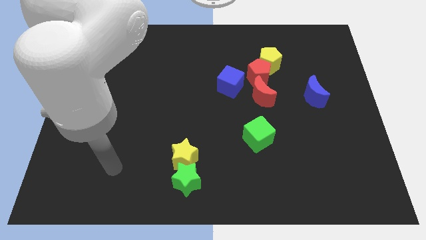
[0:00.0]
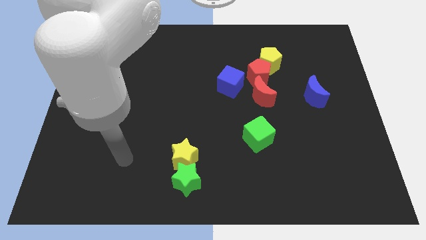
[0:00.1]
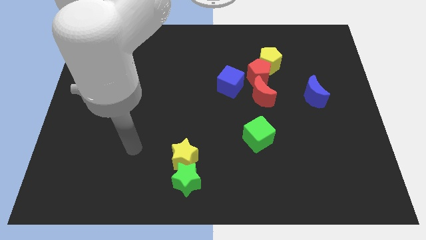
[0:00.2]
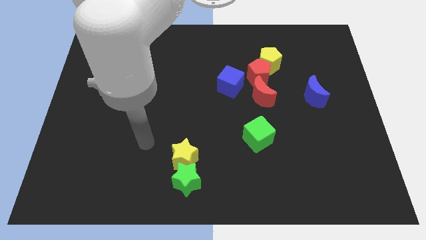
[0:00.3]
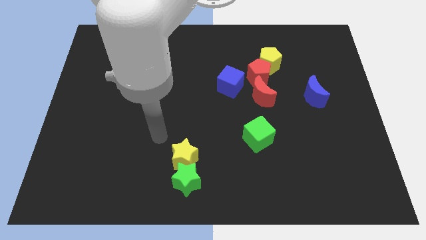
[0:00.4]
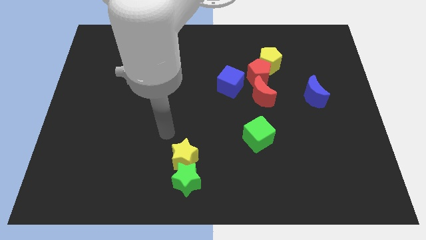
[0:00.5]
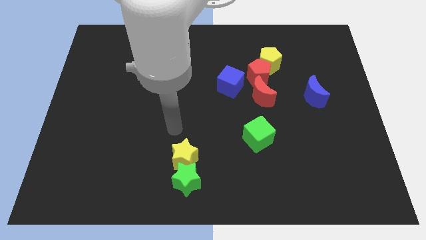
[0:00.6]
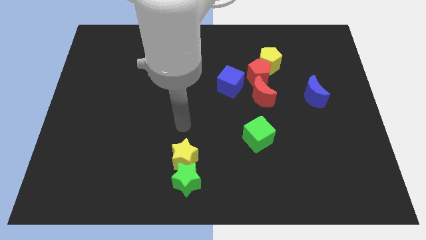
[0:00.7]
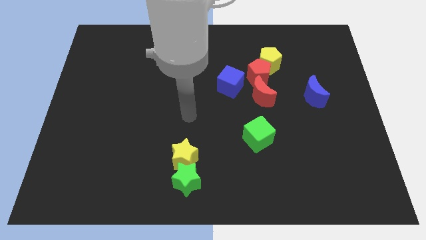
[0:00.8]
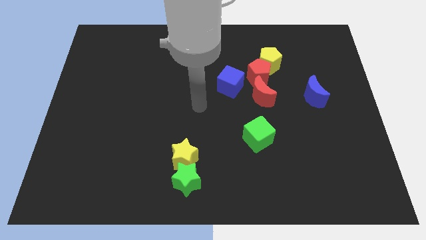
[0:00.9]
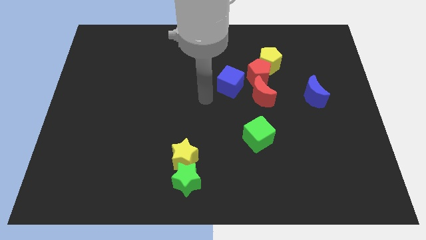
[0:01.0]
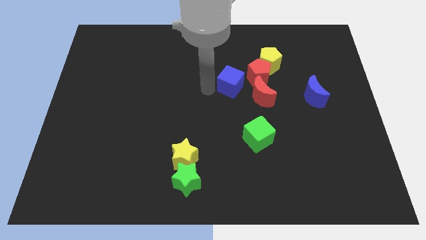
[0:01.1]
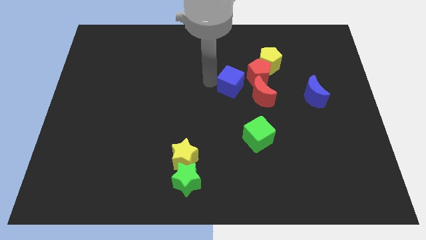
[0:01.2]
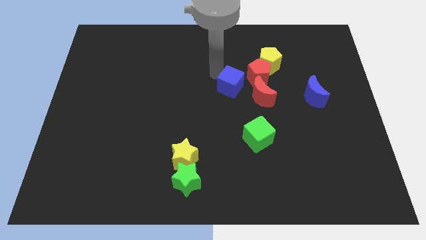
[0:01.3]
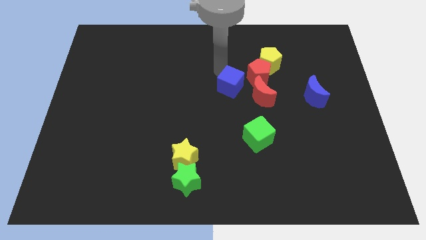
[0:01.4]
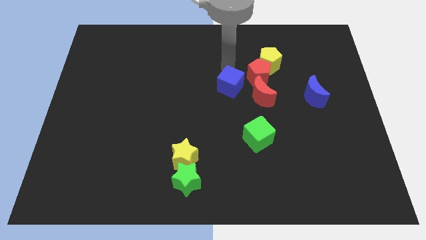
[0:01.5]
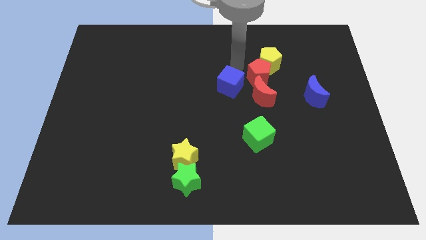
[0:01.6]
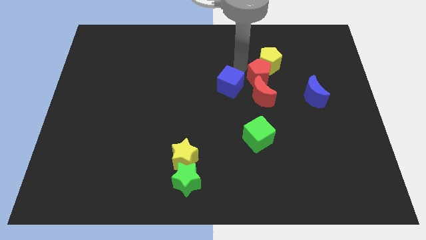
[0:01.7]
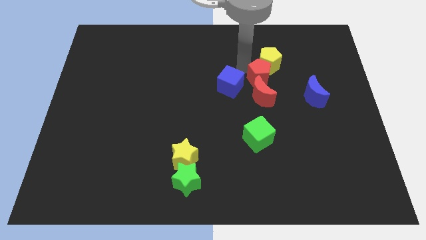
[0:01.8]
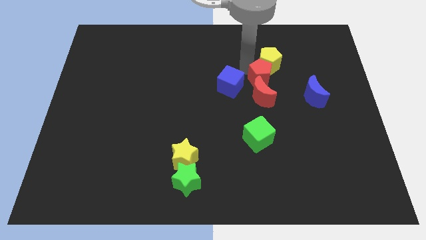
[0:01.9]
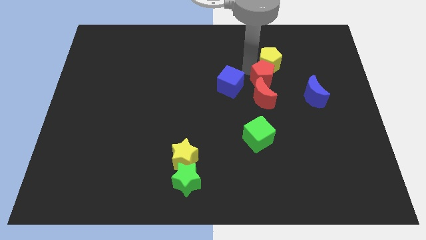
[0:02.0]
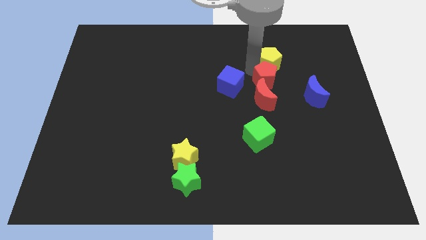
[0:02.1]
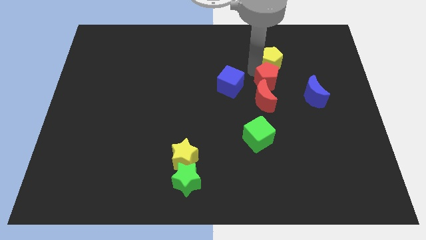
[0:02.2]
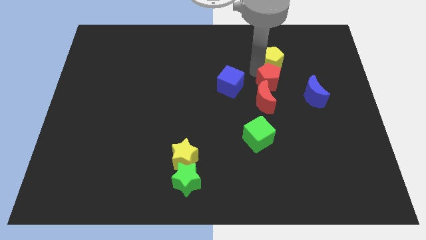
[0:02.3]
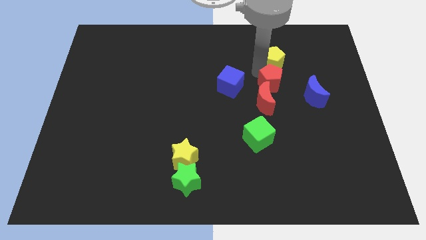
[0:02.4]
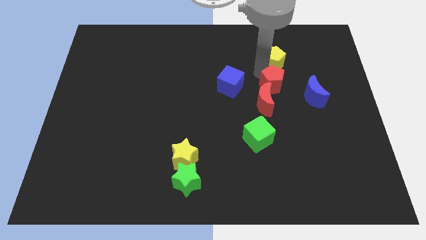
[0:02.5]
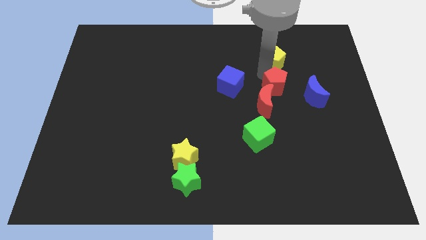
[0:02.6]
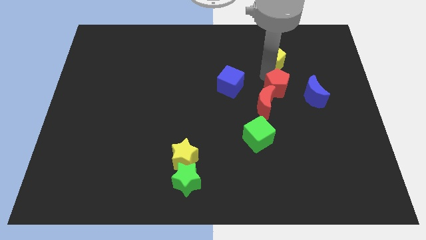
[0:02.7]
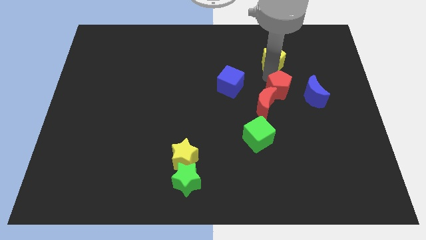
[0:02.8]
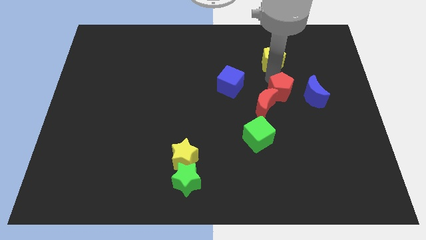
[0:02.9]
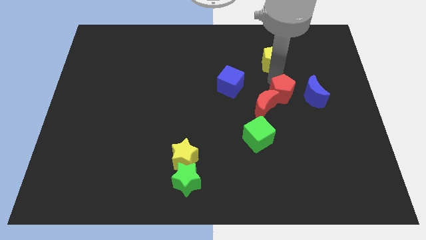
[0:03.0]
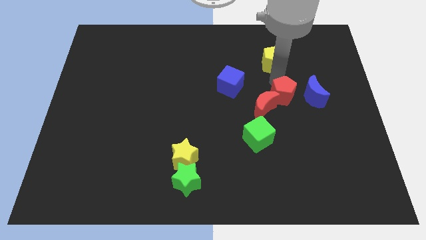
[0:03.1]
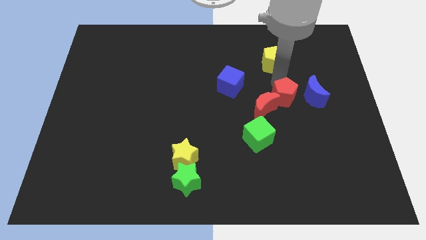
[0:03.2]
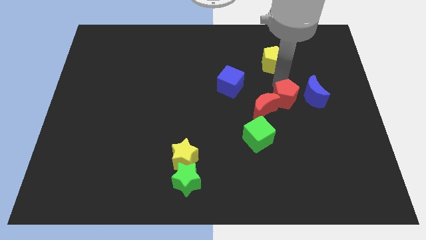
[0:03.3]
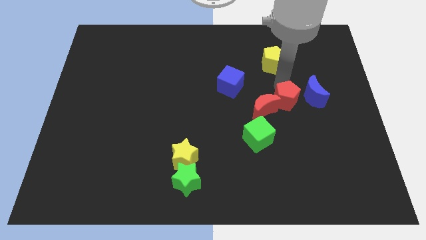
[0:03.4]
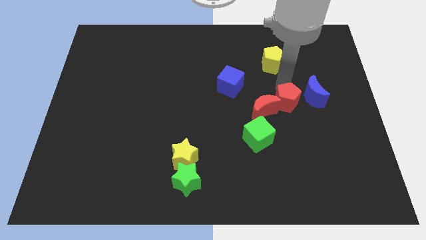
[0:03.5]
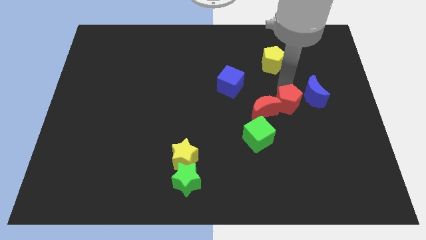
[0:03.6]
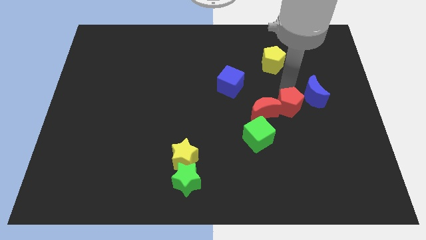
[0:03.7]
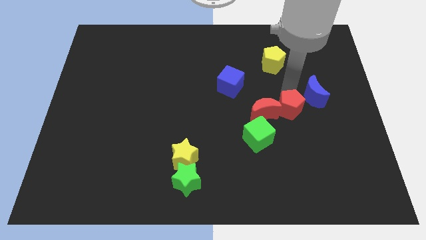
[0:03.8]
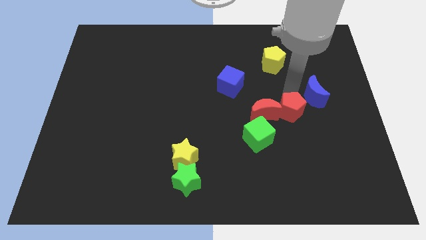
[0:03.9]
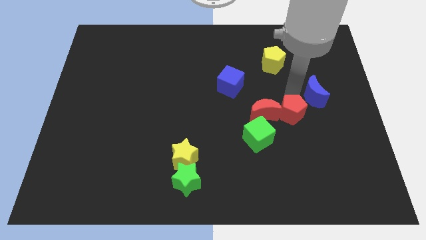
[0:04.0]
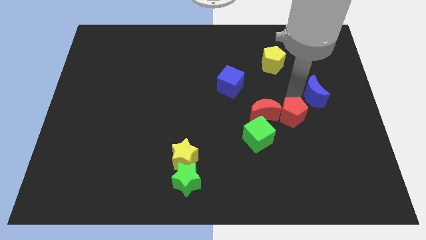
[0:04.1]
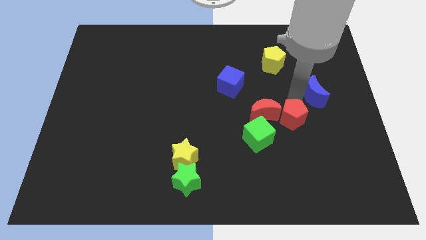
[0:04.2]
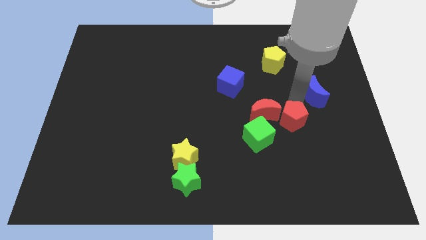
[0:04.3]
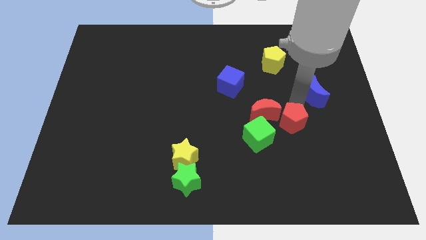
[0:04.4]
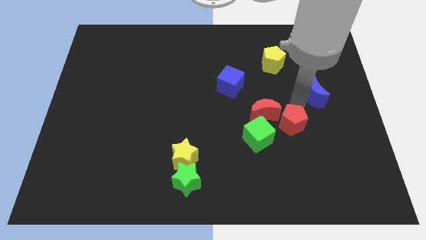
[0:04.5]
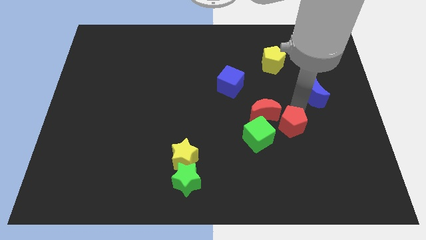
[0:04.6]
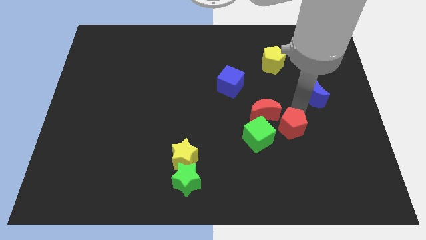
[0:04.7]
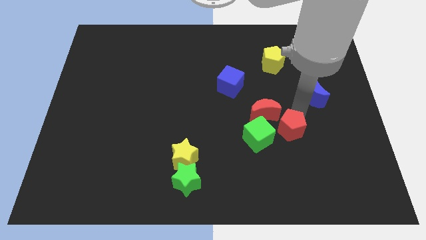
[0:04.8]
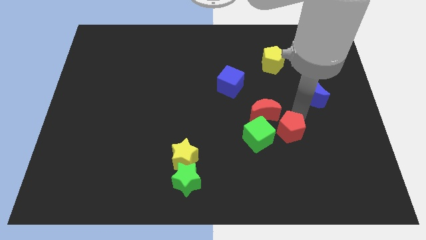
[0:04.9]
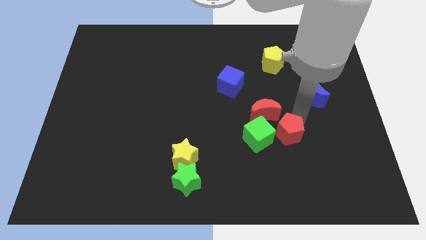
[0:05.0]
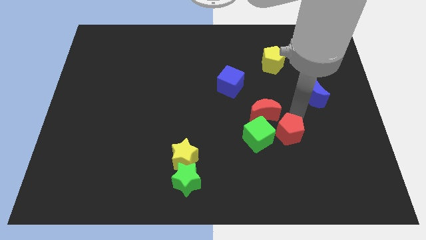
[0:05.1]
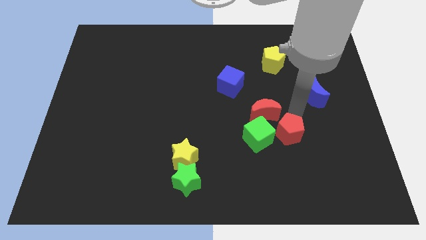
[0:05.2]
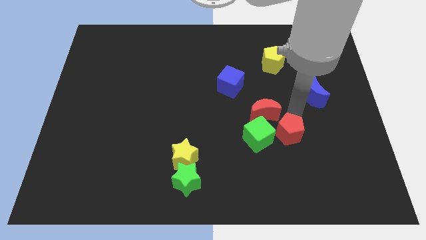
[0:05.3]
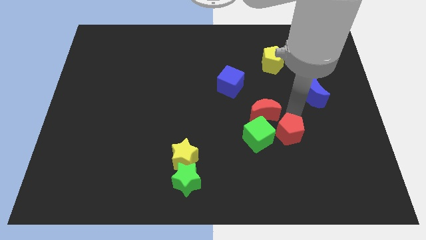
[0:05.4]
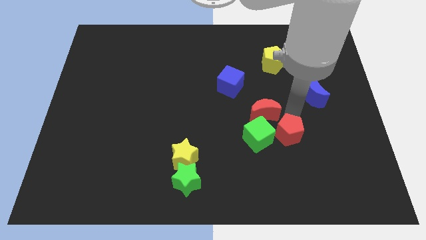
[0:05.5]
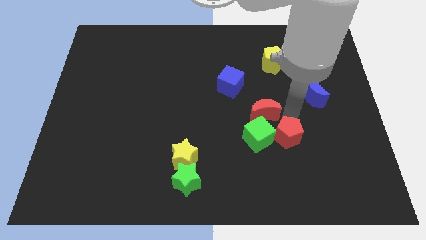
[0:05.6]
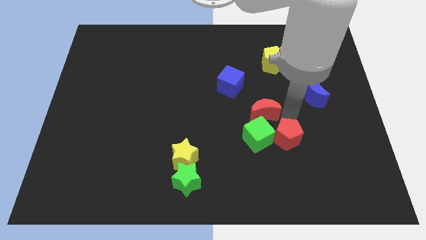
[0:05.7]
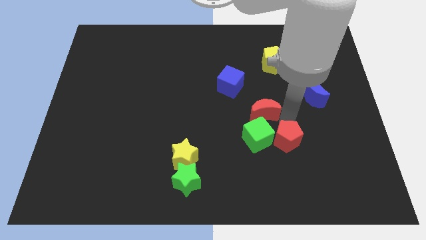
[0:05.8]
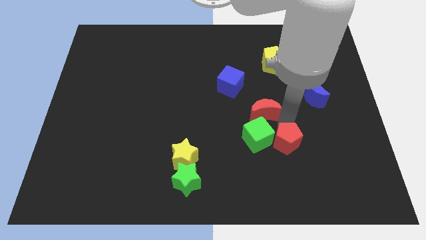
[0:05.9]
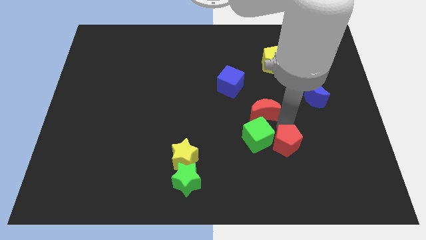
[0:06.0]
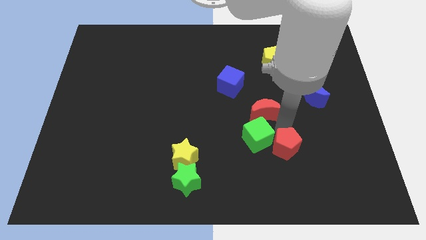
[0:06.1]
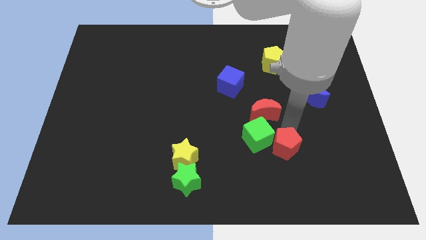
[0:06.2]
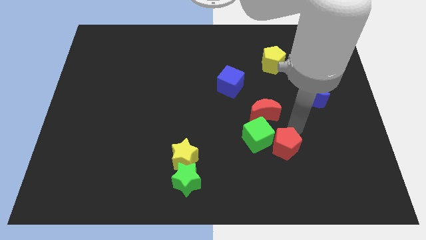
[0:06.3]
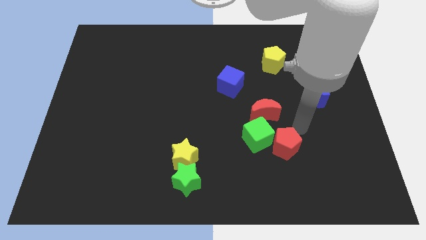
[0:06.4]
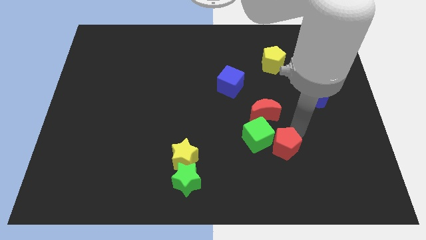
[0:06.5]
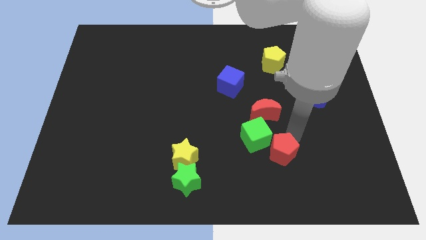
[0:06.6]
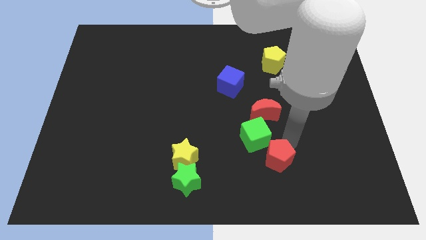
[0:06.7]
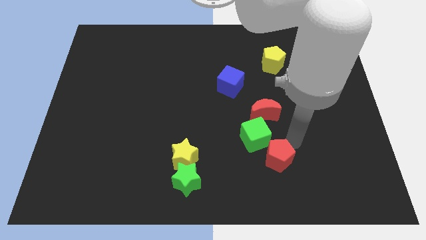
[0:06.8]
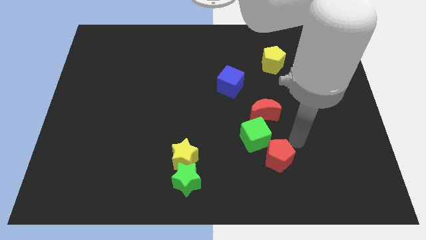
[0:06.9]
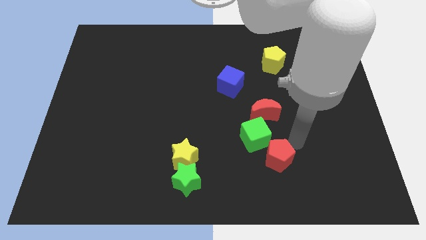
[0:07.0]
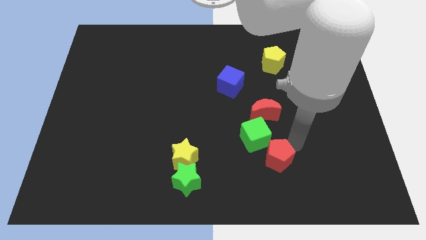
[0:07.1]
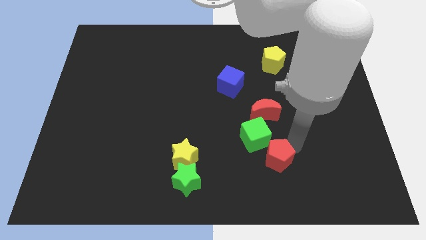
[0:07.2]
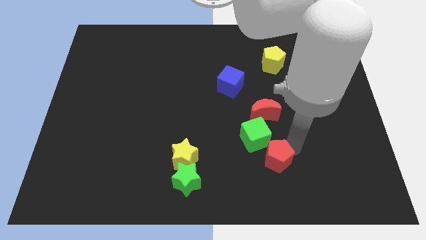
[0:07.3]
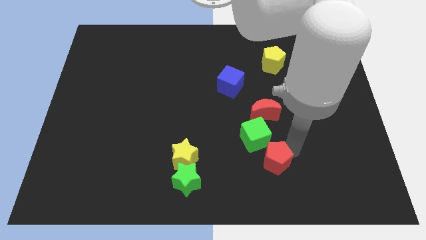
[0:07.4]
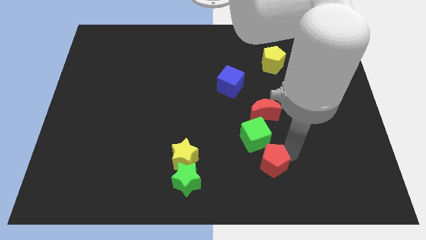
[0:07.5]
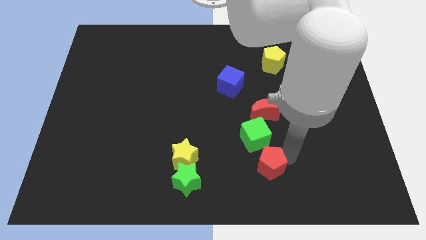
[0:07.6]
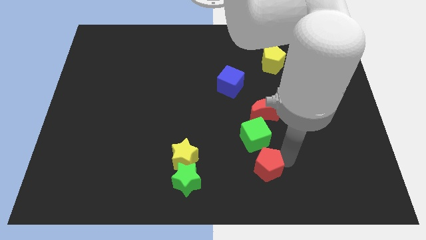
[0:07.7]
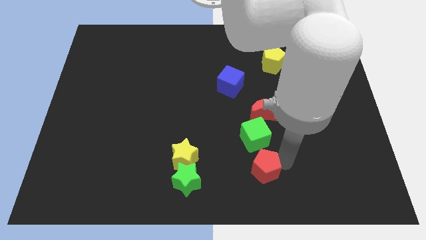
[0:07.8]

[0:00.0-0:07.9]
move the red pentagon to the right of the green star

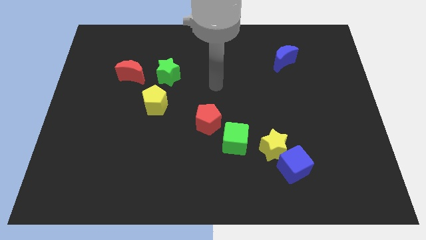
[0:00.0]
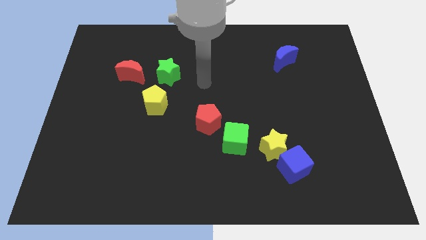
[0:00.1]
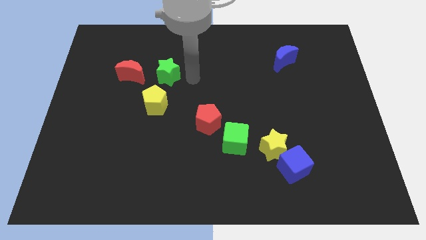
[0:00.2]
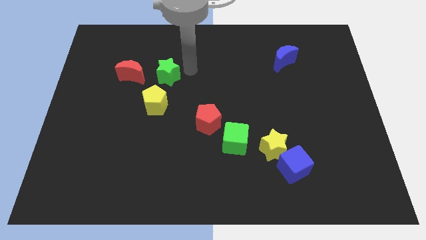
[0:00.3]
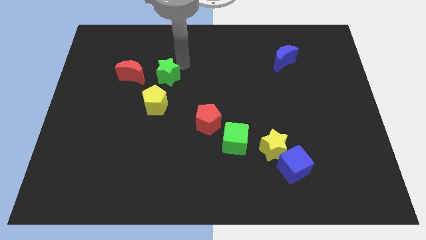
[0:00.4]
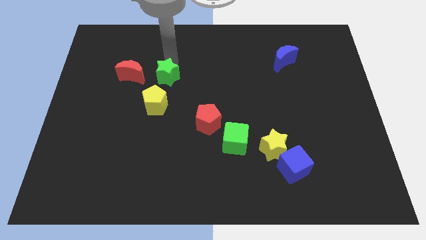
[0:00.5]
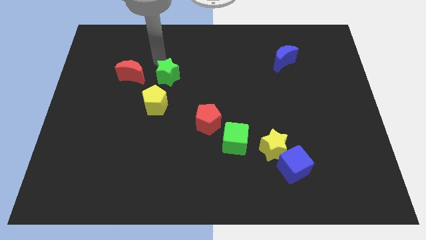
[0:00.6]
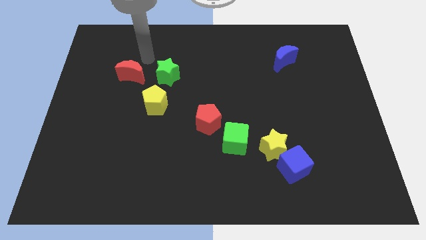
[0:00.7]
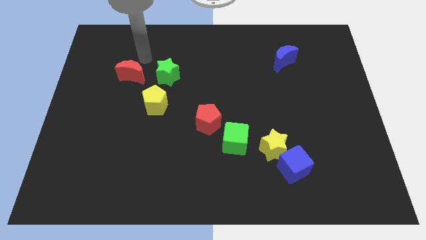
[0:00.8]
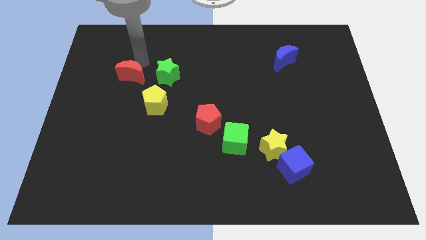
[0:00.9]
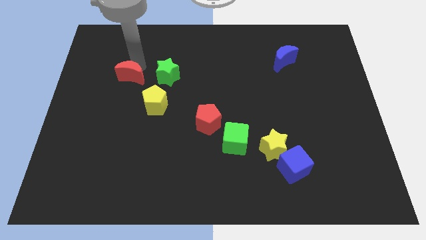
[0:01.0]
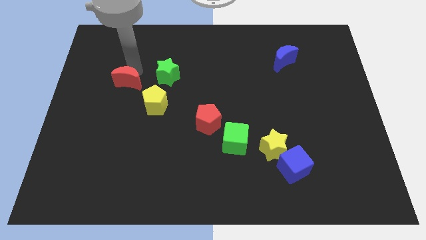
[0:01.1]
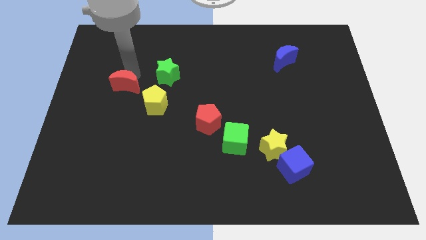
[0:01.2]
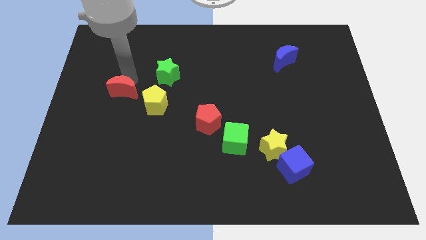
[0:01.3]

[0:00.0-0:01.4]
move the red moon to the left of the yellow pentagon
